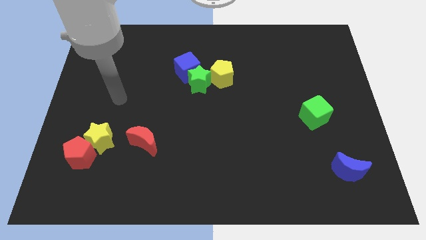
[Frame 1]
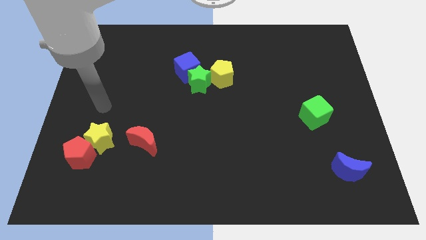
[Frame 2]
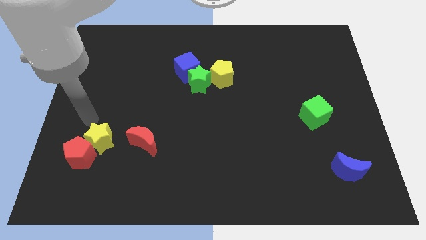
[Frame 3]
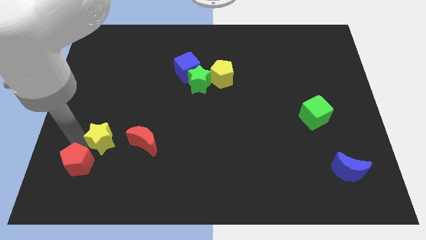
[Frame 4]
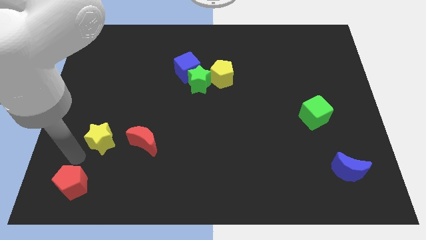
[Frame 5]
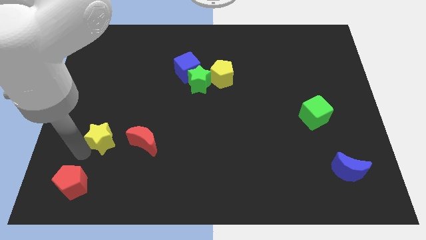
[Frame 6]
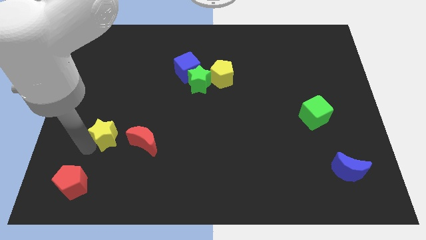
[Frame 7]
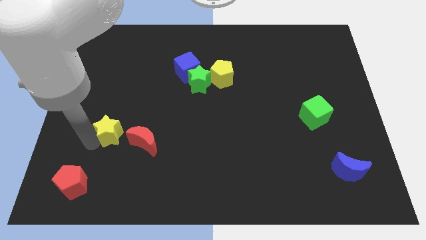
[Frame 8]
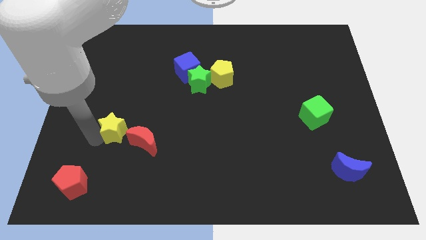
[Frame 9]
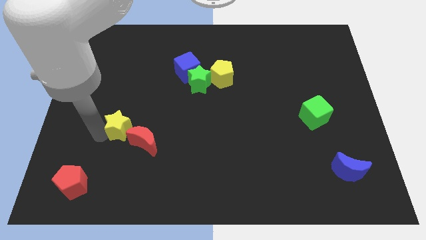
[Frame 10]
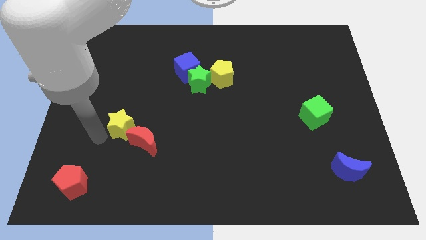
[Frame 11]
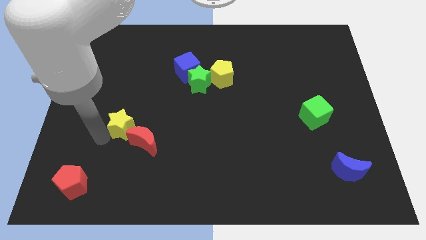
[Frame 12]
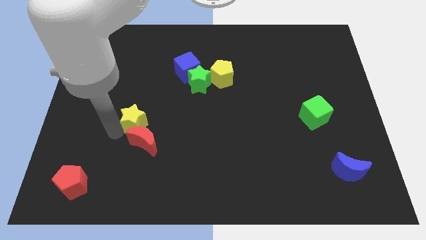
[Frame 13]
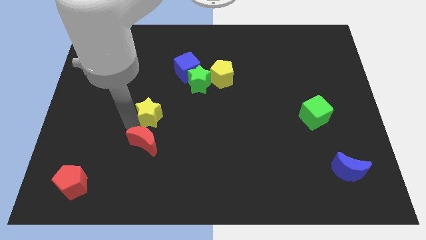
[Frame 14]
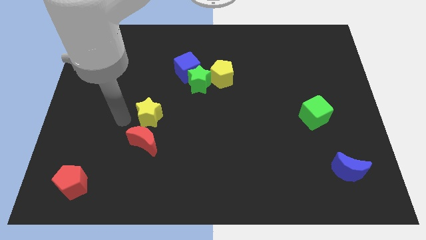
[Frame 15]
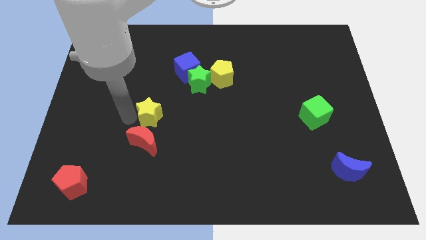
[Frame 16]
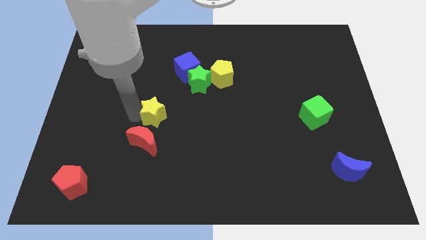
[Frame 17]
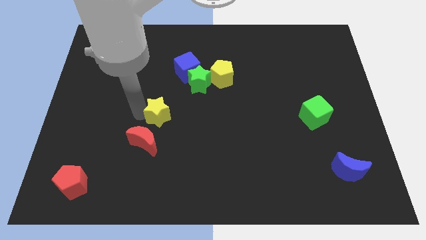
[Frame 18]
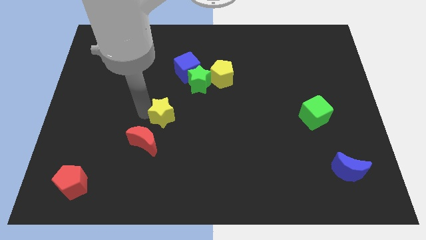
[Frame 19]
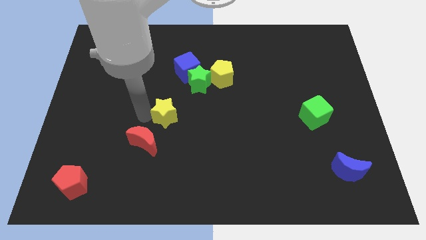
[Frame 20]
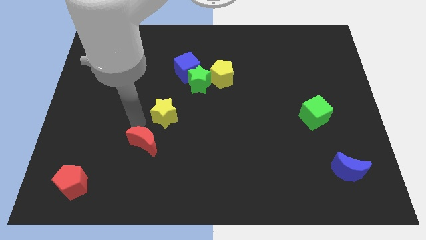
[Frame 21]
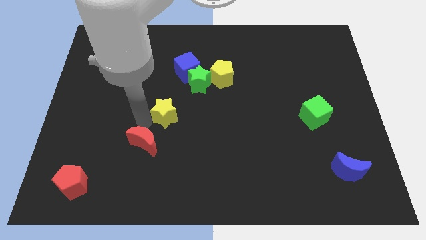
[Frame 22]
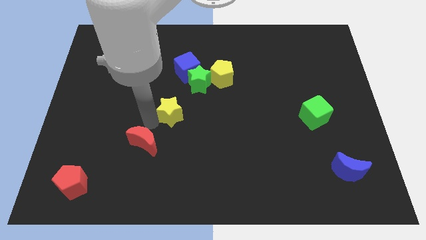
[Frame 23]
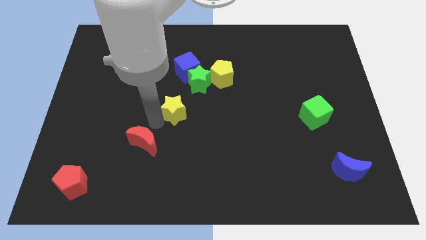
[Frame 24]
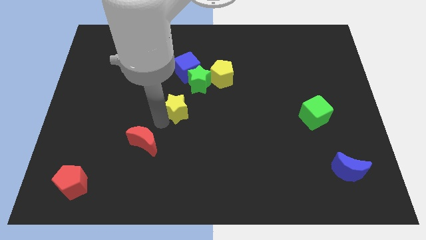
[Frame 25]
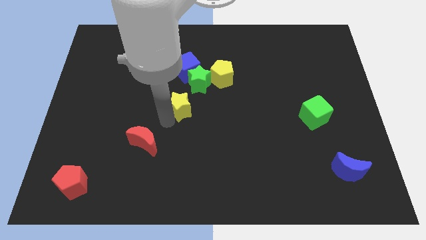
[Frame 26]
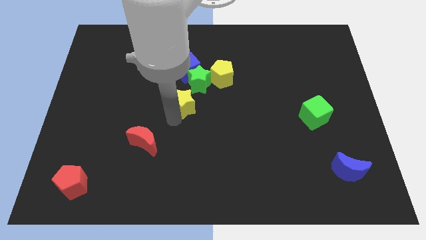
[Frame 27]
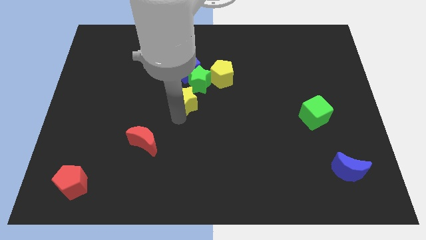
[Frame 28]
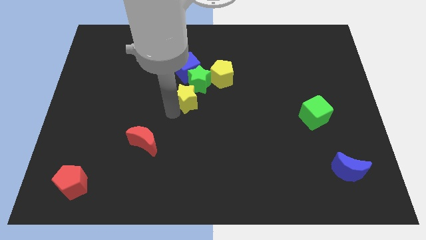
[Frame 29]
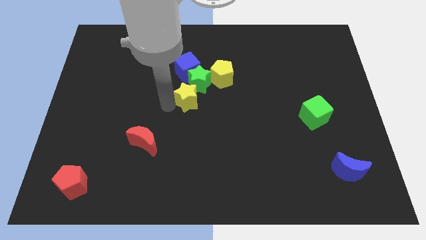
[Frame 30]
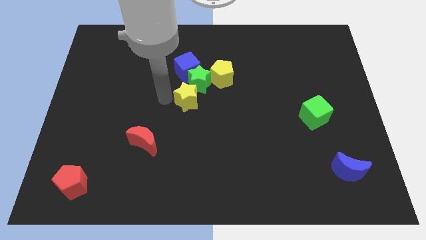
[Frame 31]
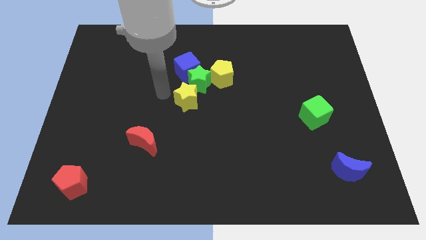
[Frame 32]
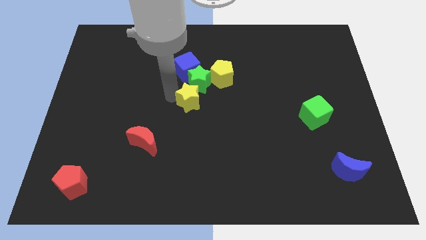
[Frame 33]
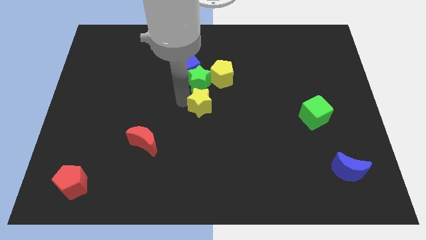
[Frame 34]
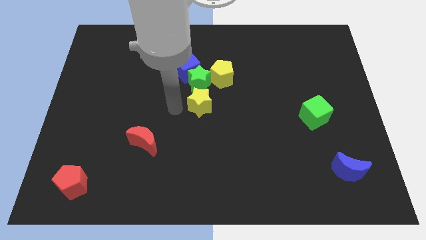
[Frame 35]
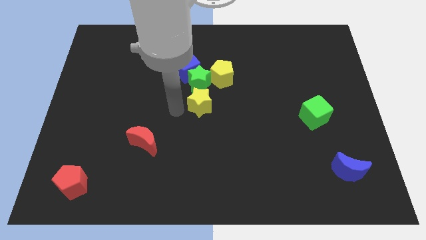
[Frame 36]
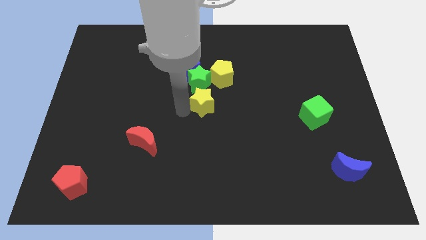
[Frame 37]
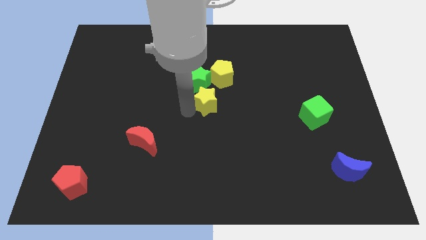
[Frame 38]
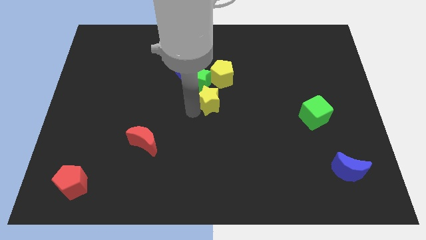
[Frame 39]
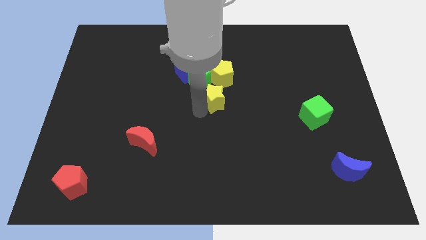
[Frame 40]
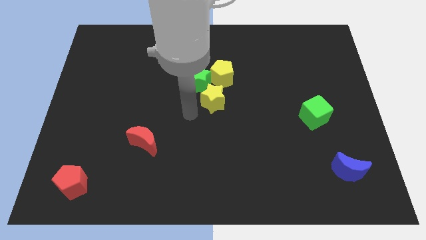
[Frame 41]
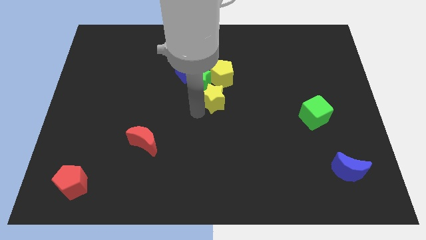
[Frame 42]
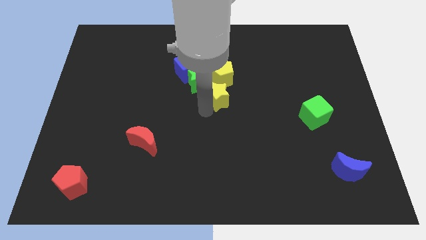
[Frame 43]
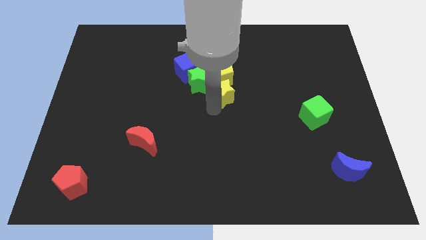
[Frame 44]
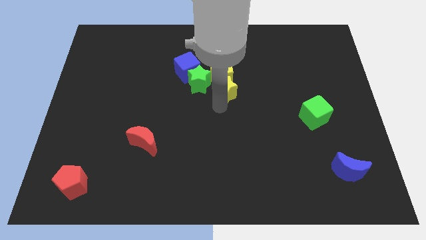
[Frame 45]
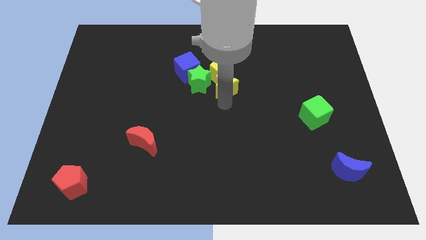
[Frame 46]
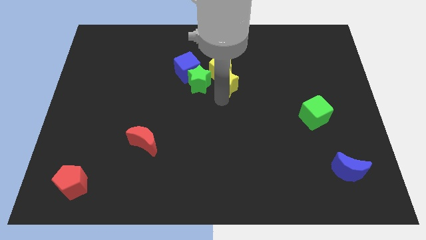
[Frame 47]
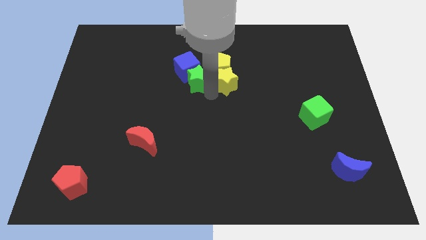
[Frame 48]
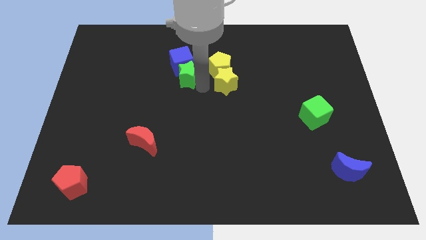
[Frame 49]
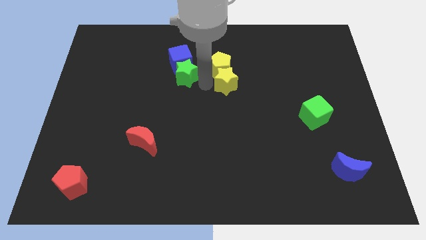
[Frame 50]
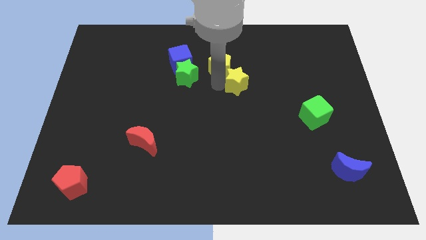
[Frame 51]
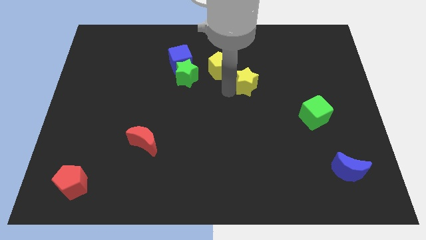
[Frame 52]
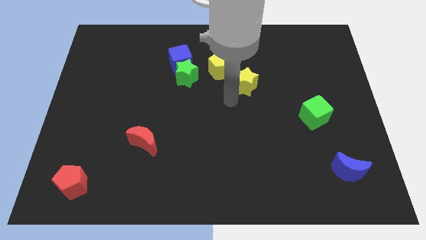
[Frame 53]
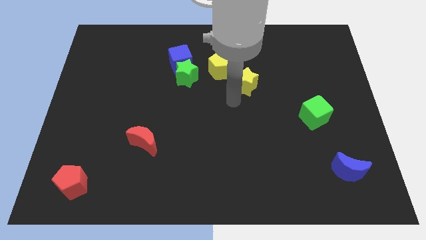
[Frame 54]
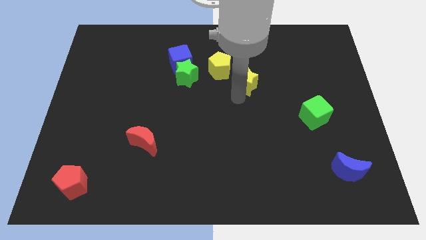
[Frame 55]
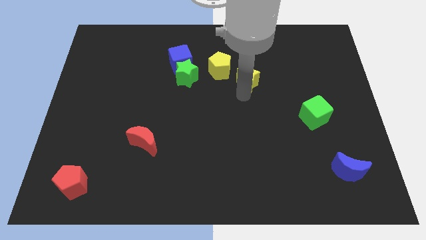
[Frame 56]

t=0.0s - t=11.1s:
slide the yellow star just right of the yellow pentagon
